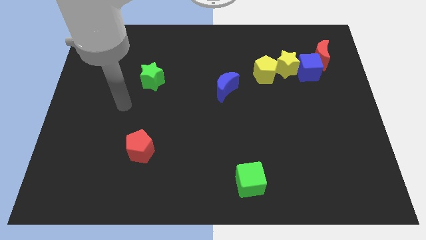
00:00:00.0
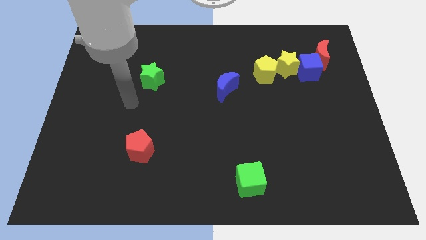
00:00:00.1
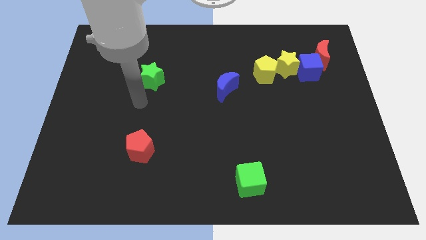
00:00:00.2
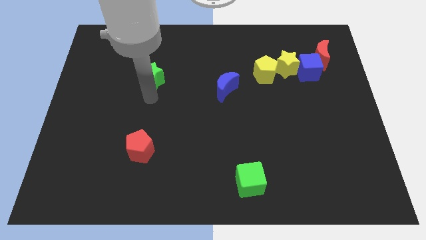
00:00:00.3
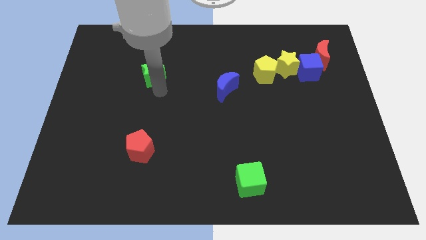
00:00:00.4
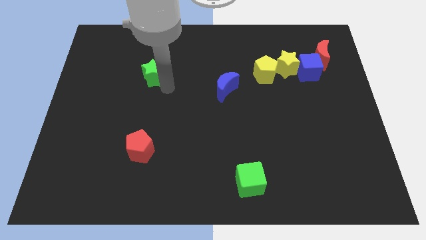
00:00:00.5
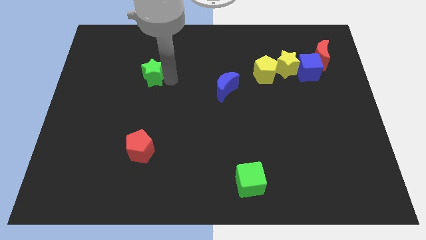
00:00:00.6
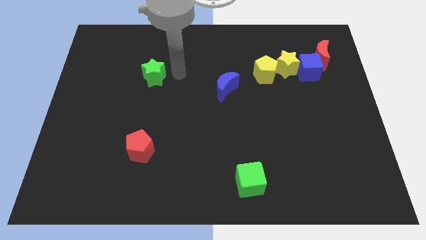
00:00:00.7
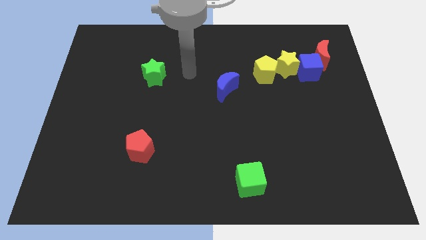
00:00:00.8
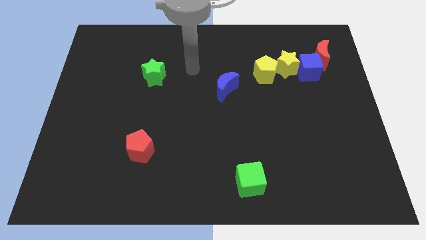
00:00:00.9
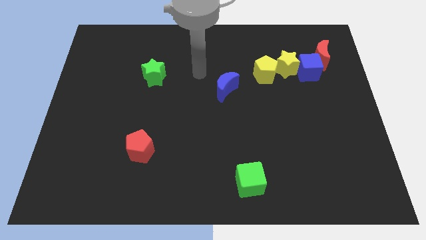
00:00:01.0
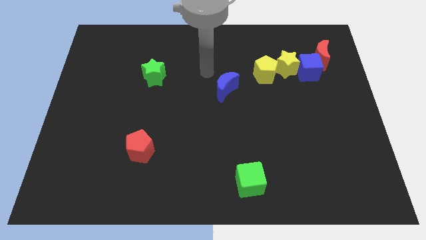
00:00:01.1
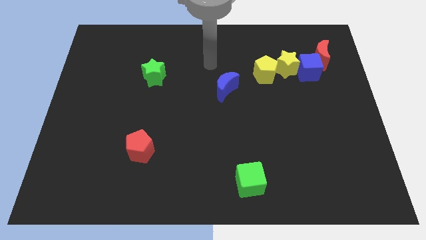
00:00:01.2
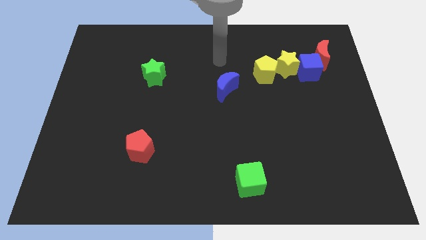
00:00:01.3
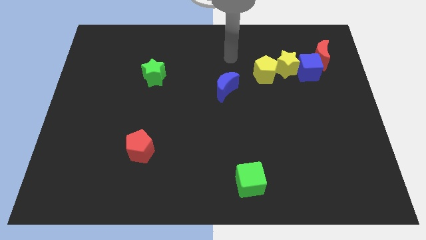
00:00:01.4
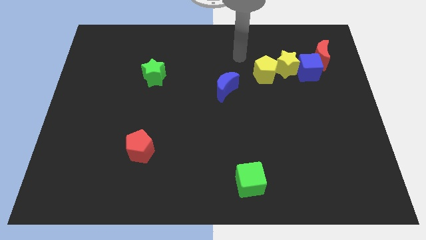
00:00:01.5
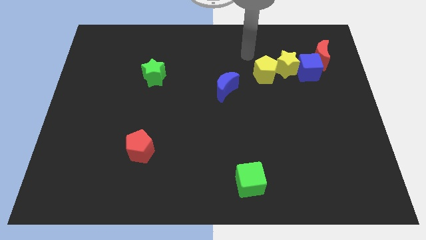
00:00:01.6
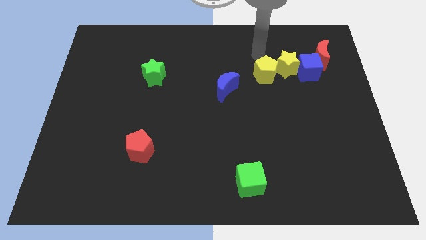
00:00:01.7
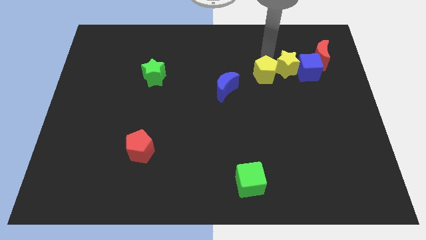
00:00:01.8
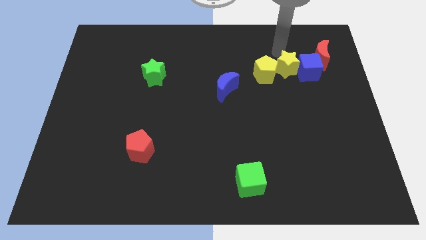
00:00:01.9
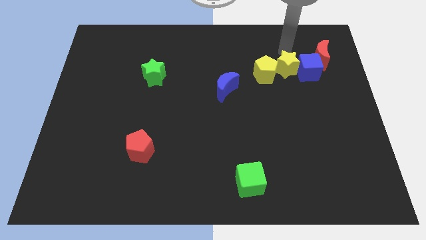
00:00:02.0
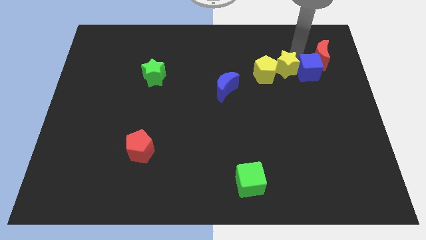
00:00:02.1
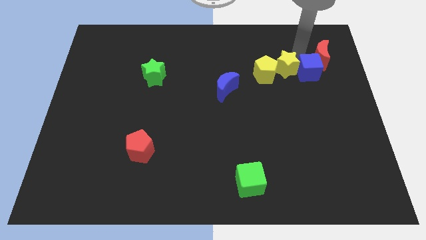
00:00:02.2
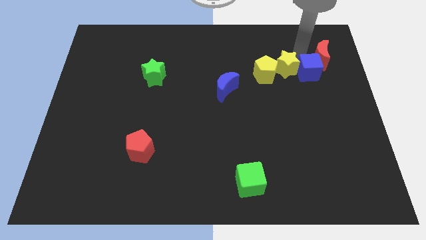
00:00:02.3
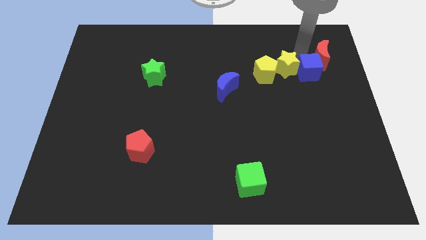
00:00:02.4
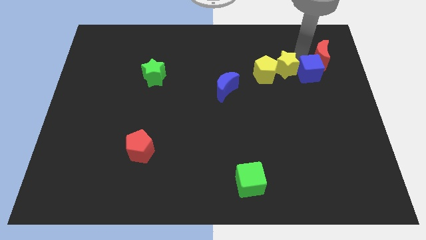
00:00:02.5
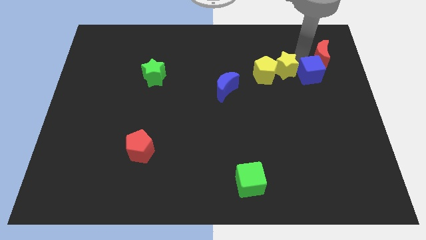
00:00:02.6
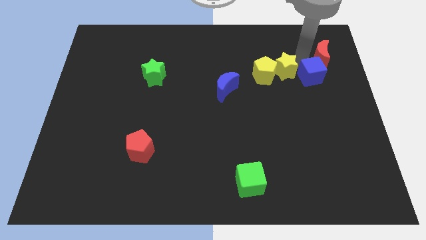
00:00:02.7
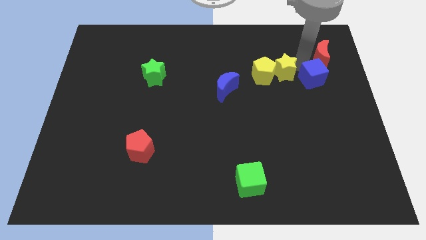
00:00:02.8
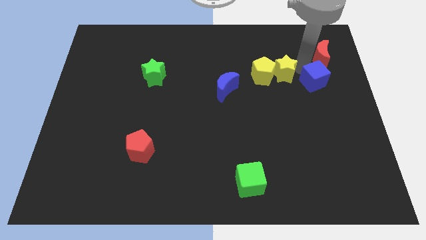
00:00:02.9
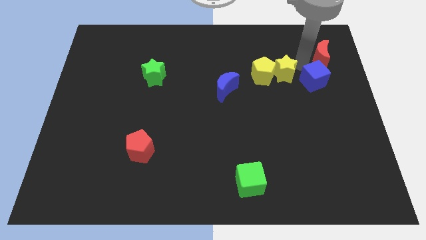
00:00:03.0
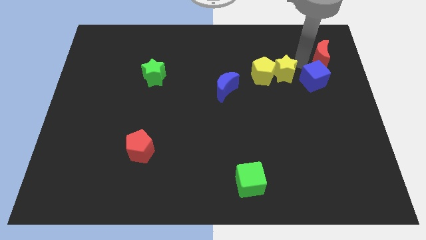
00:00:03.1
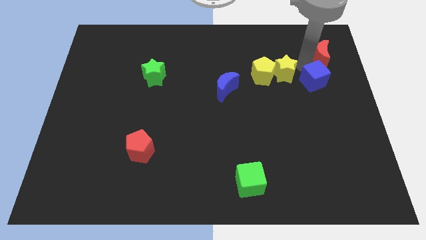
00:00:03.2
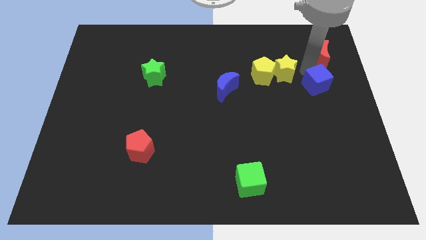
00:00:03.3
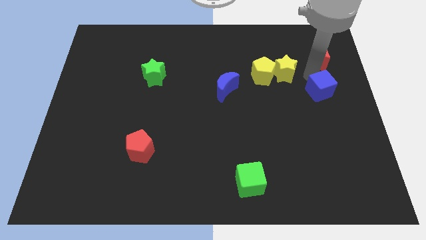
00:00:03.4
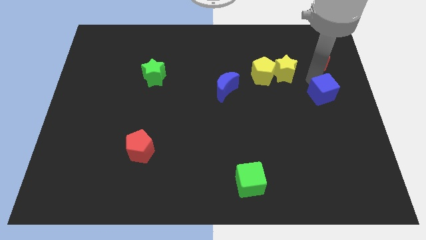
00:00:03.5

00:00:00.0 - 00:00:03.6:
move the blue cube away from the yellow star and red moon

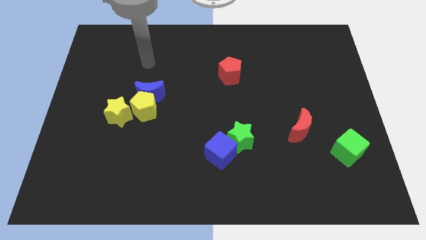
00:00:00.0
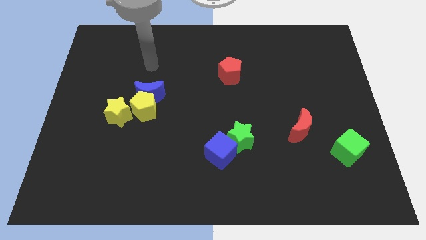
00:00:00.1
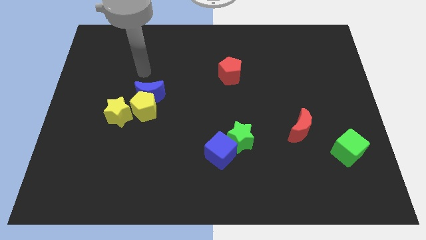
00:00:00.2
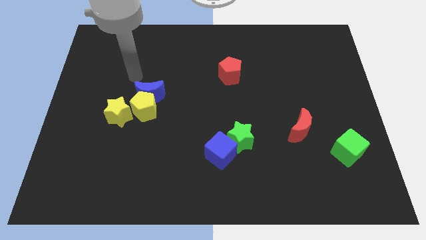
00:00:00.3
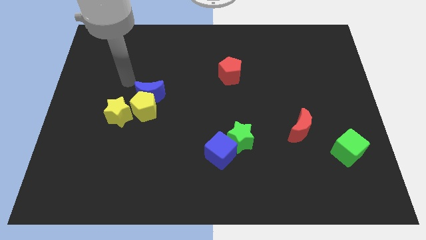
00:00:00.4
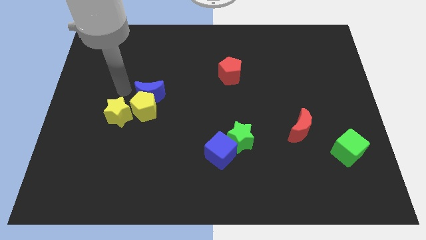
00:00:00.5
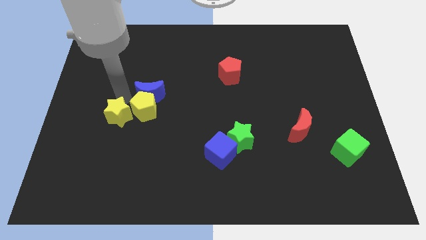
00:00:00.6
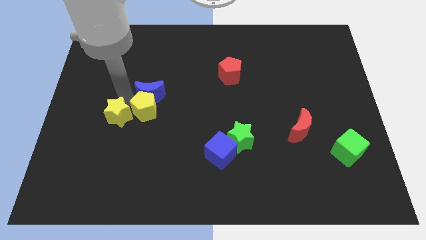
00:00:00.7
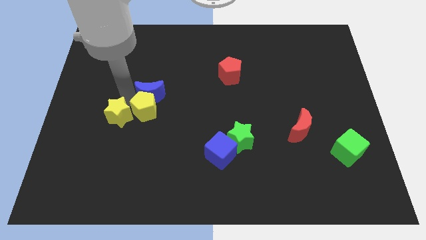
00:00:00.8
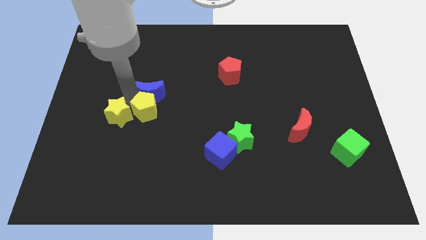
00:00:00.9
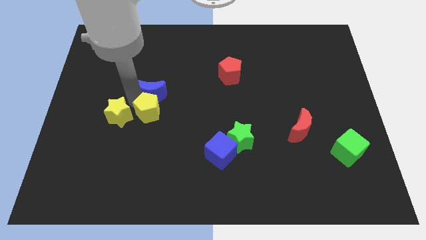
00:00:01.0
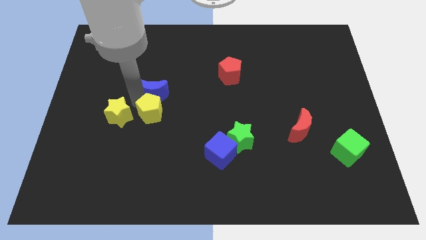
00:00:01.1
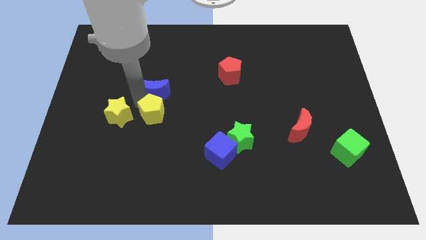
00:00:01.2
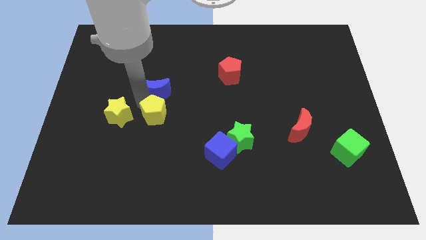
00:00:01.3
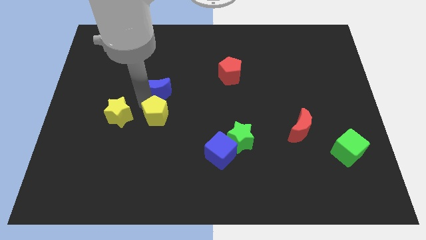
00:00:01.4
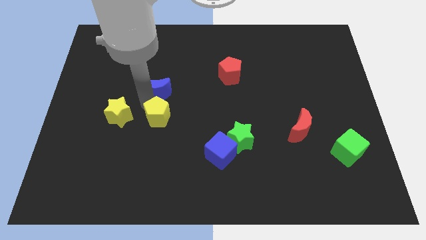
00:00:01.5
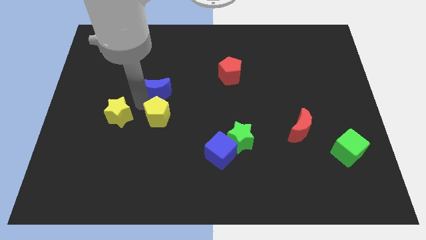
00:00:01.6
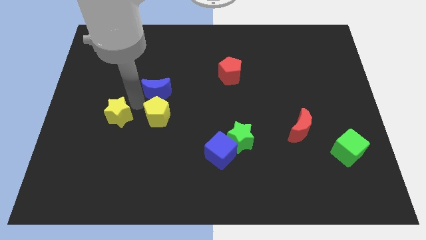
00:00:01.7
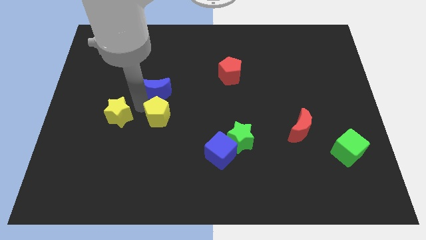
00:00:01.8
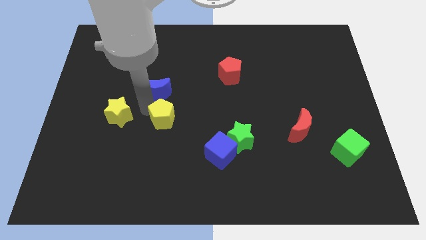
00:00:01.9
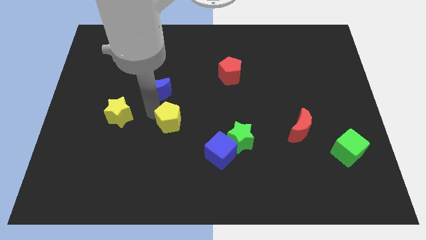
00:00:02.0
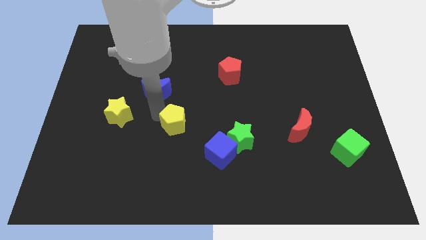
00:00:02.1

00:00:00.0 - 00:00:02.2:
move the yellow pentagon away from the blue moon and yellow star

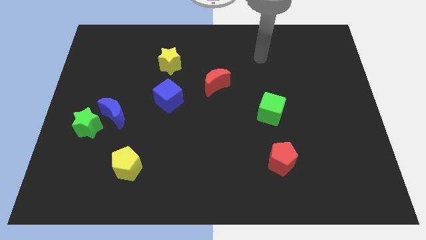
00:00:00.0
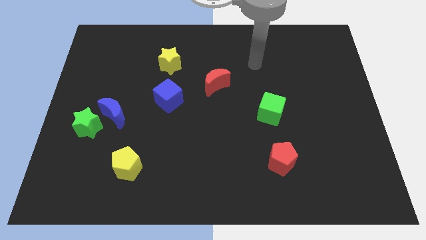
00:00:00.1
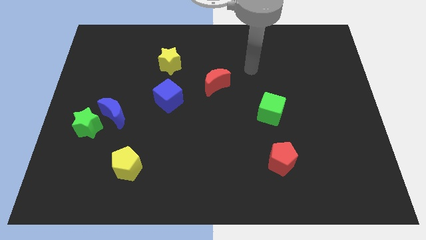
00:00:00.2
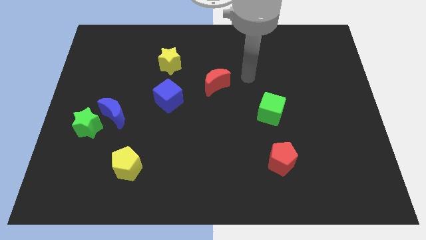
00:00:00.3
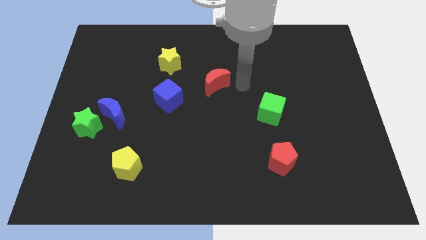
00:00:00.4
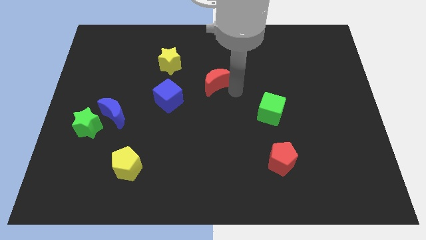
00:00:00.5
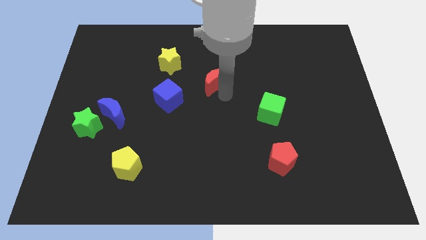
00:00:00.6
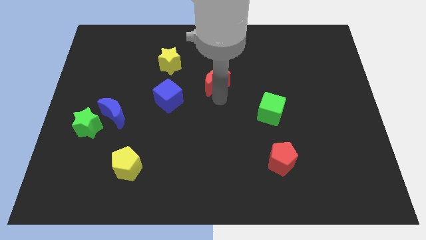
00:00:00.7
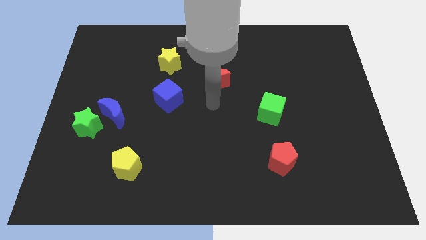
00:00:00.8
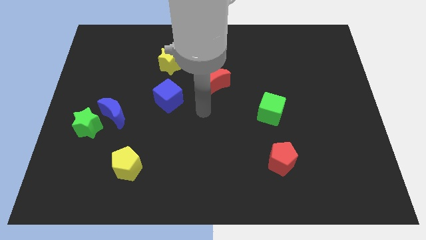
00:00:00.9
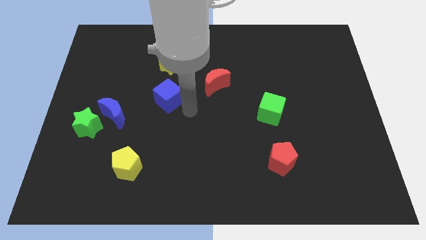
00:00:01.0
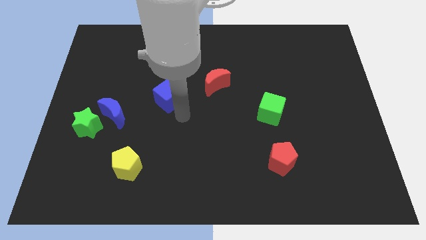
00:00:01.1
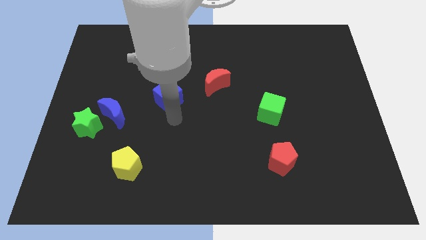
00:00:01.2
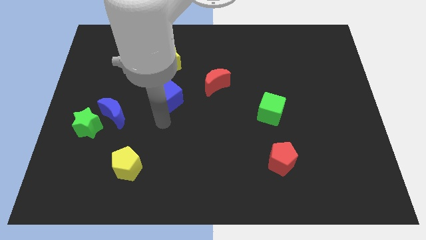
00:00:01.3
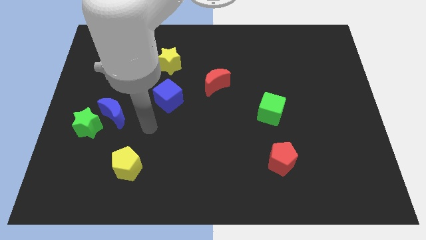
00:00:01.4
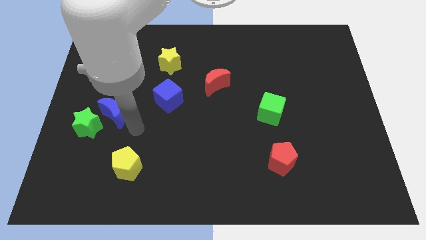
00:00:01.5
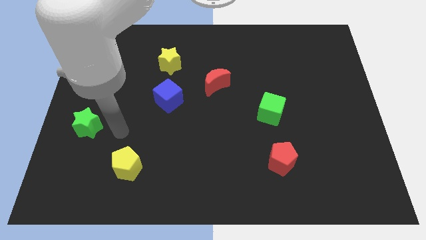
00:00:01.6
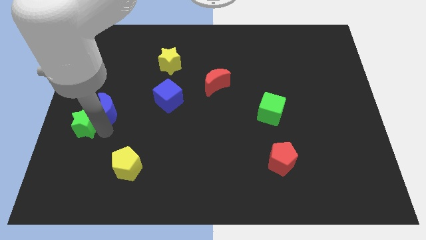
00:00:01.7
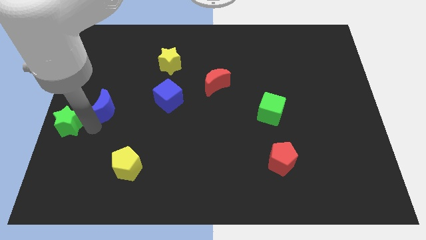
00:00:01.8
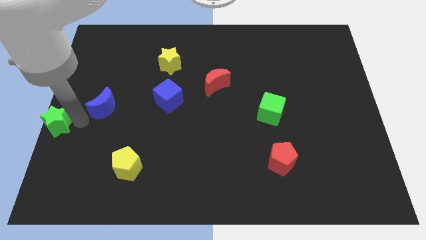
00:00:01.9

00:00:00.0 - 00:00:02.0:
pull the blue moon apart from the green star

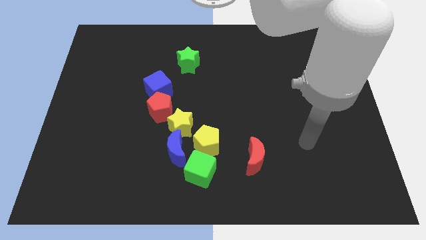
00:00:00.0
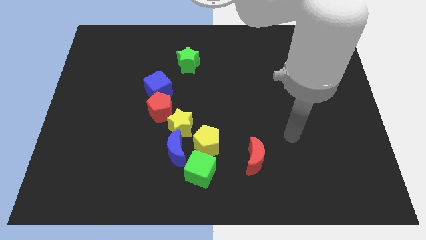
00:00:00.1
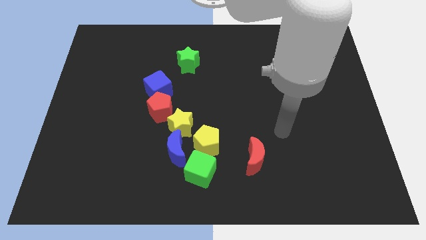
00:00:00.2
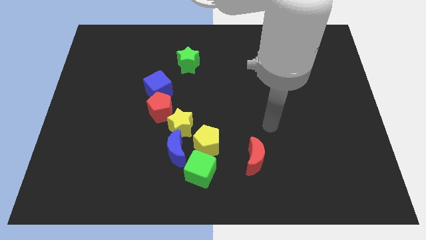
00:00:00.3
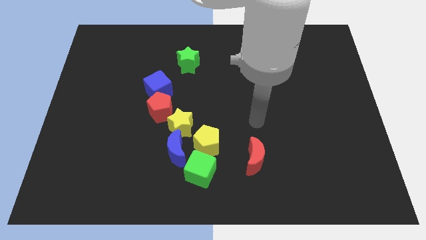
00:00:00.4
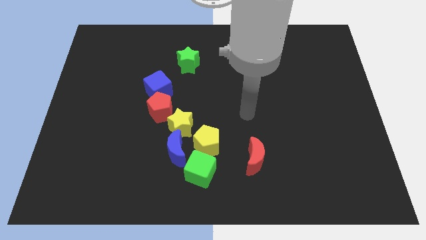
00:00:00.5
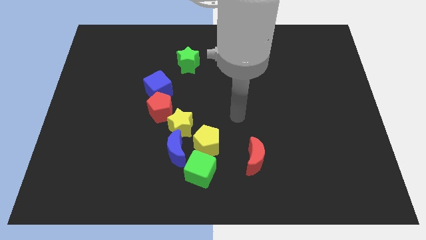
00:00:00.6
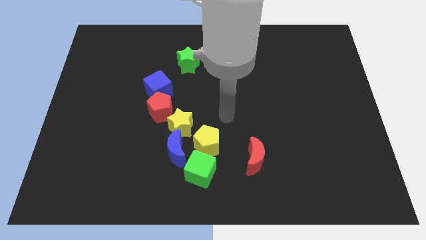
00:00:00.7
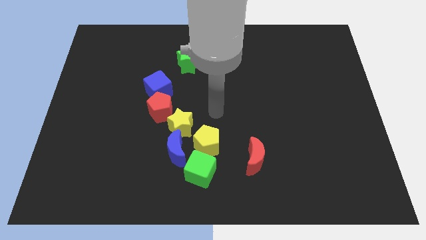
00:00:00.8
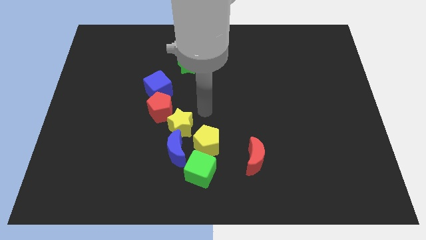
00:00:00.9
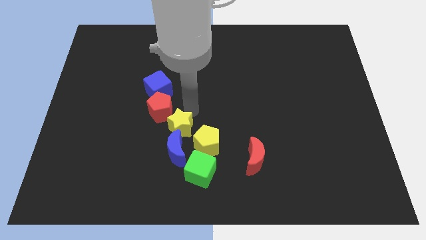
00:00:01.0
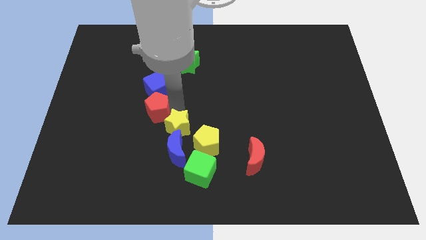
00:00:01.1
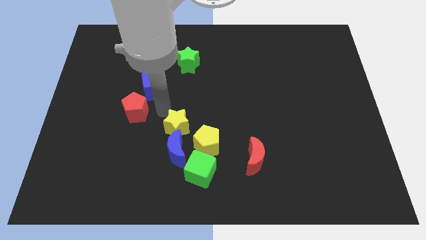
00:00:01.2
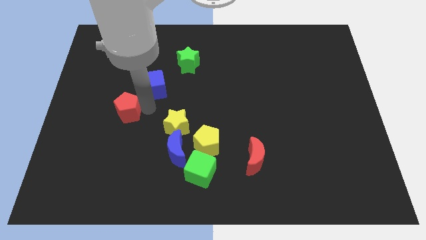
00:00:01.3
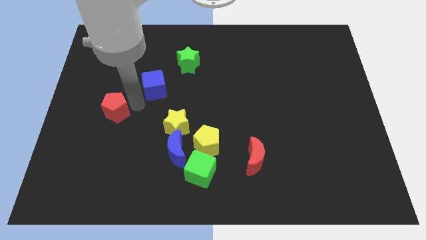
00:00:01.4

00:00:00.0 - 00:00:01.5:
move the blue cube away from the red pentagon
